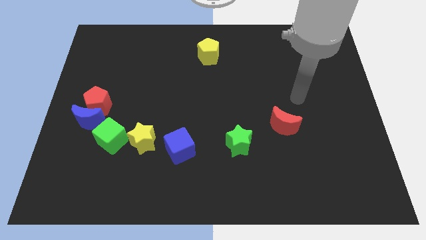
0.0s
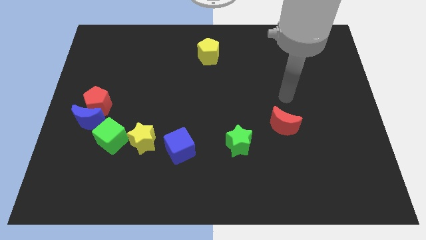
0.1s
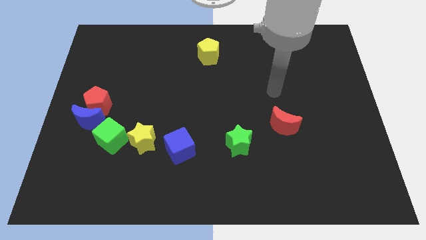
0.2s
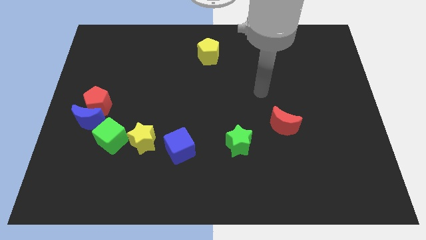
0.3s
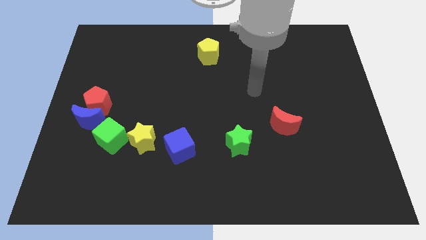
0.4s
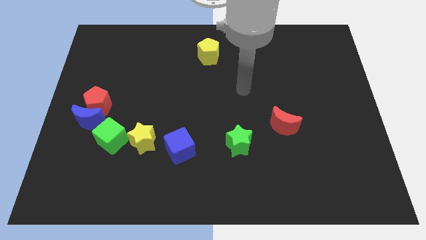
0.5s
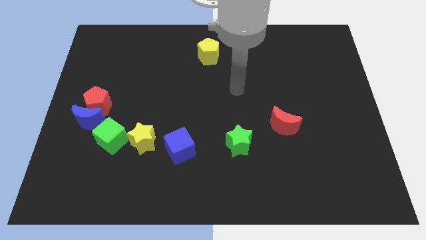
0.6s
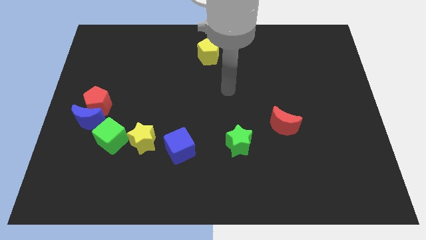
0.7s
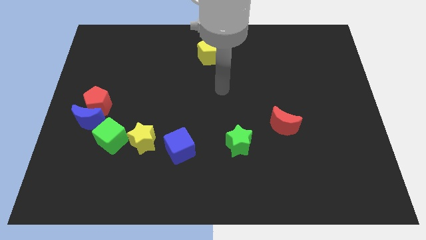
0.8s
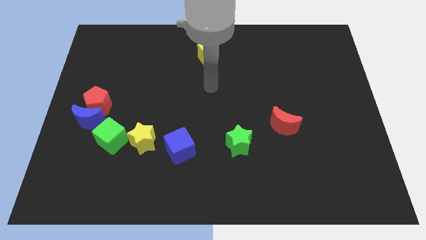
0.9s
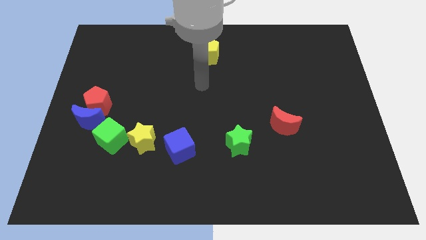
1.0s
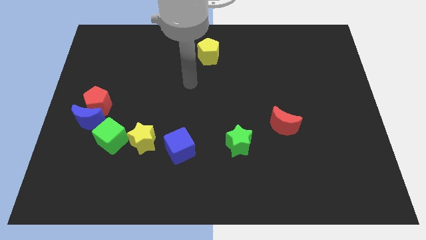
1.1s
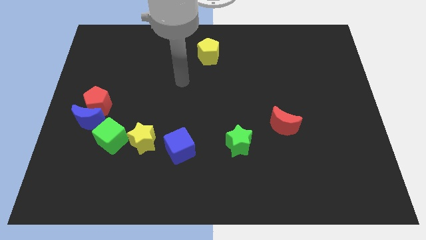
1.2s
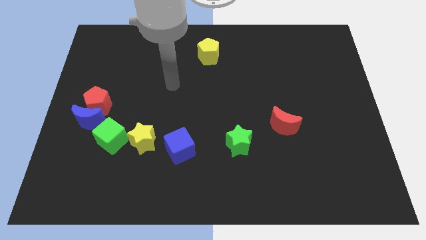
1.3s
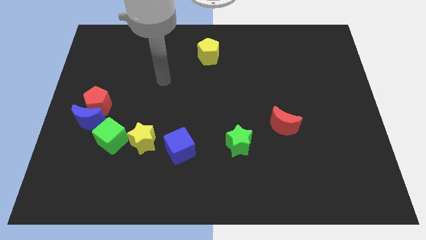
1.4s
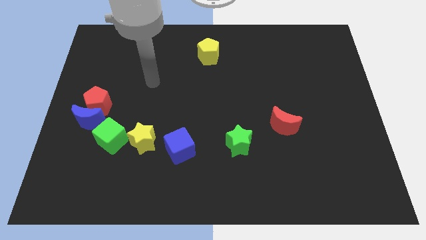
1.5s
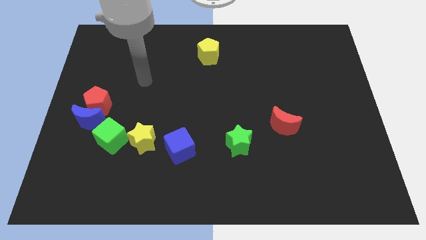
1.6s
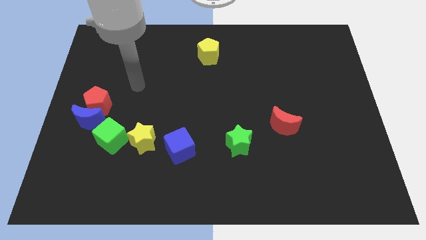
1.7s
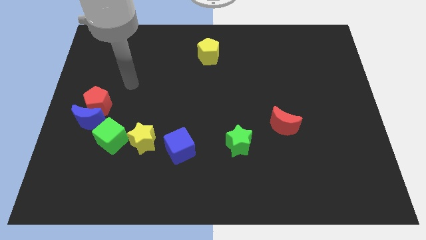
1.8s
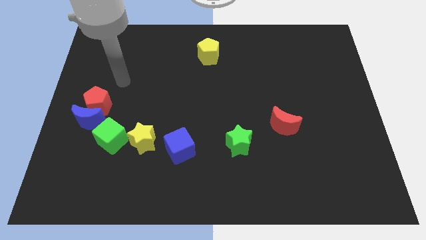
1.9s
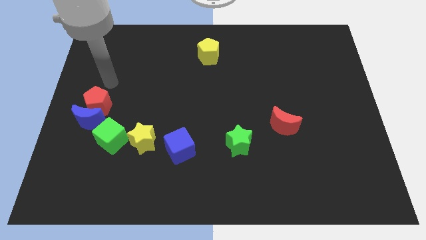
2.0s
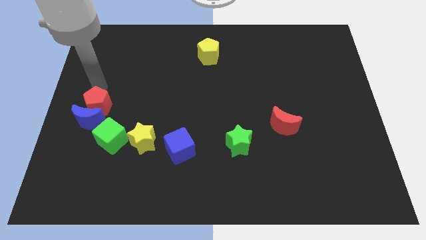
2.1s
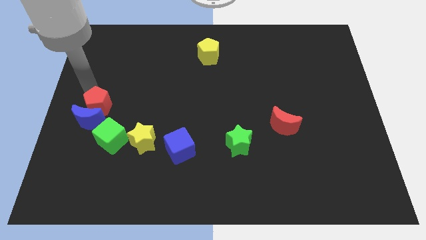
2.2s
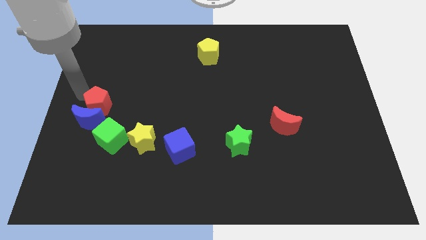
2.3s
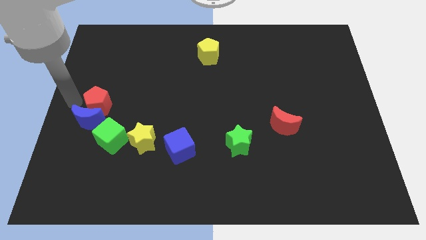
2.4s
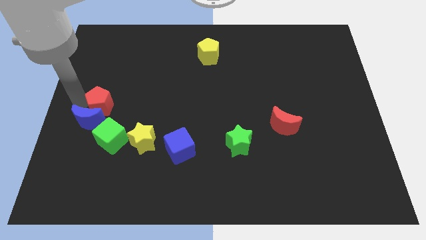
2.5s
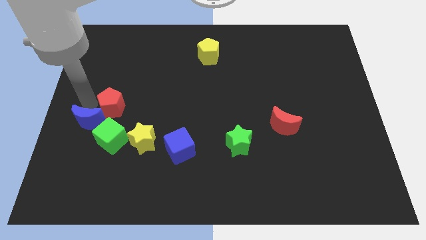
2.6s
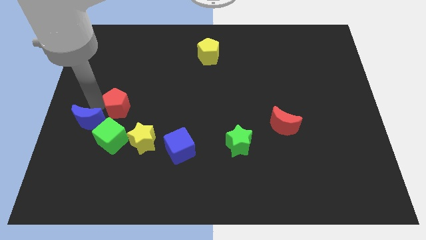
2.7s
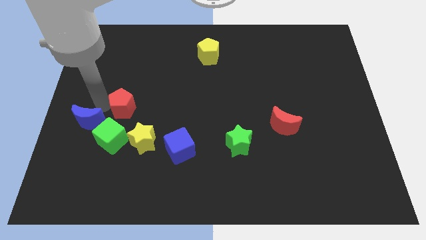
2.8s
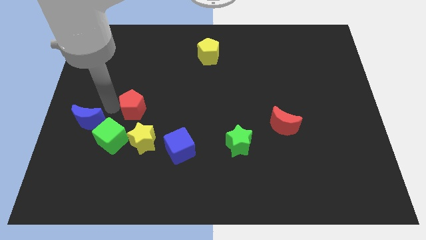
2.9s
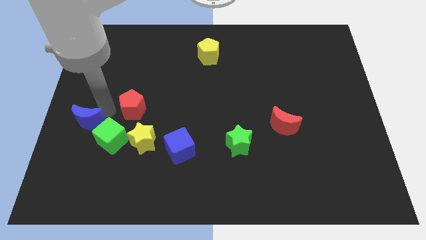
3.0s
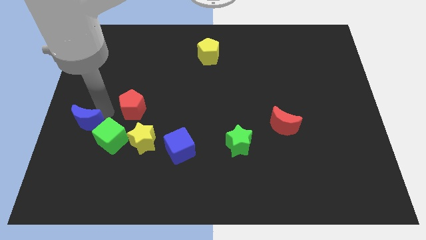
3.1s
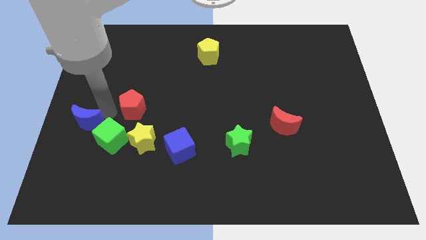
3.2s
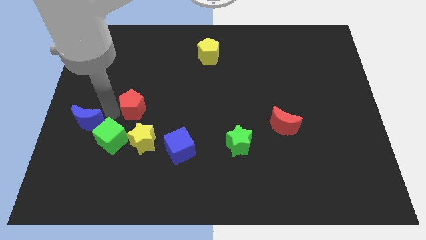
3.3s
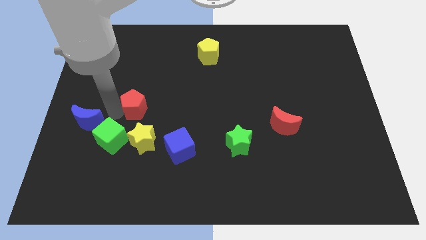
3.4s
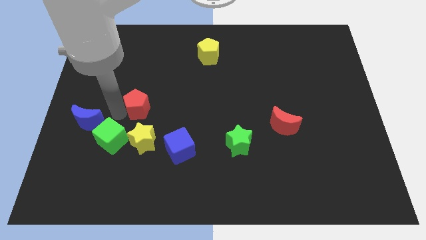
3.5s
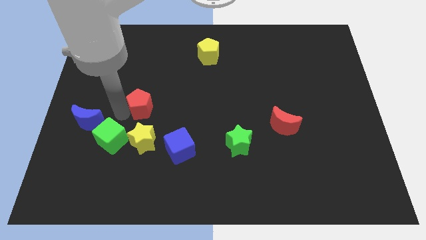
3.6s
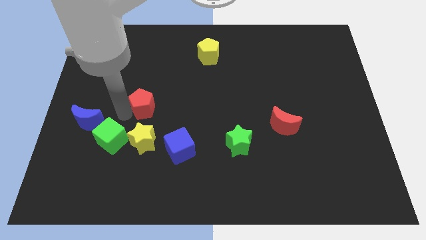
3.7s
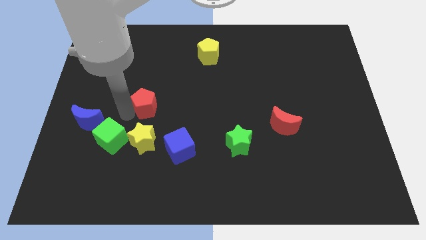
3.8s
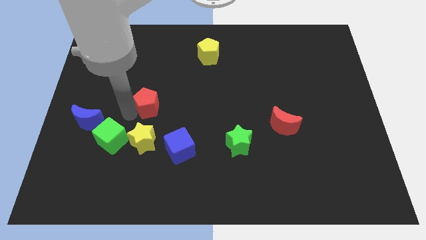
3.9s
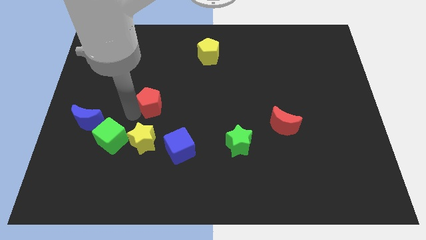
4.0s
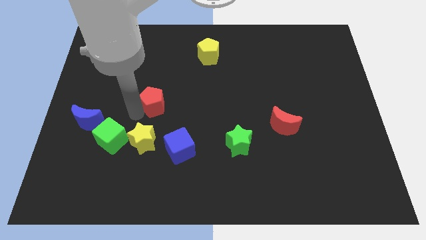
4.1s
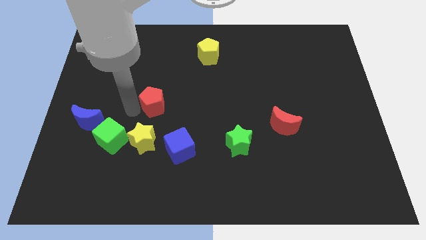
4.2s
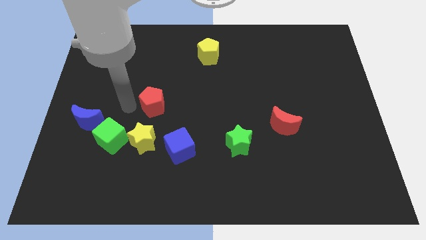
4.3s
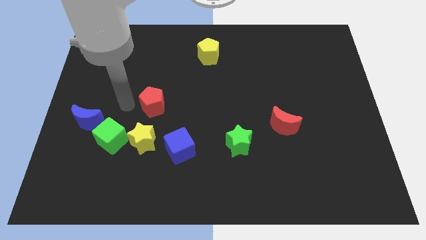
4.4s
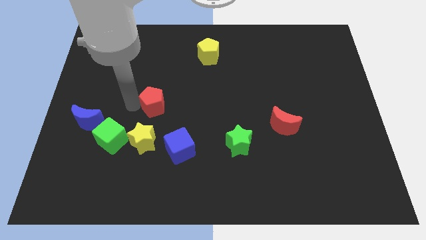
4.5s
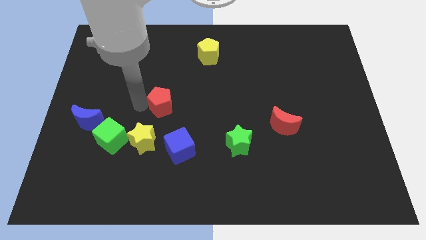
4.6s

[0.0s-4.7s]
move the red pentagon to the middle

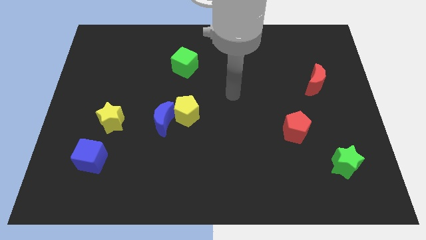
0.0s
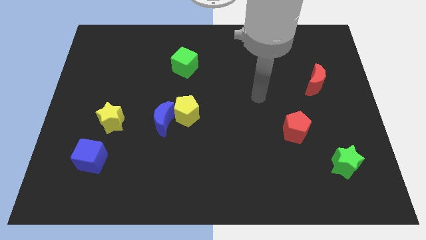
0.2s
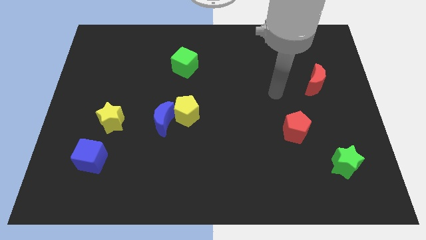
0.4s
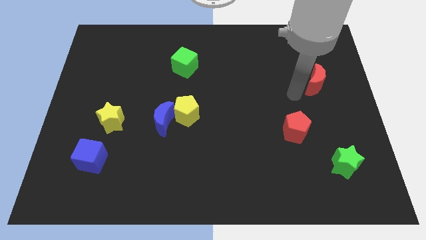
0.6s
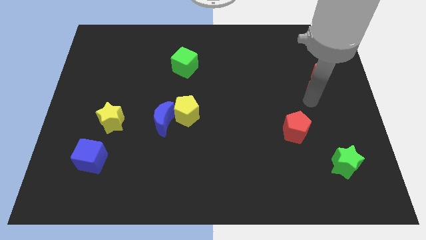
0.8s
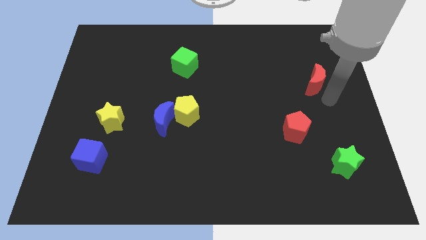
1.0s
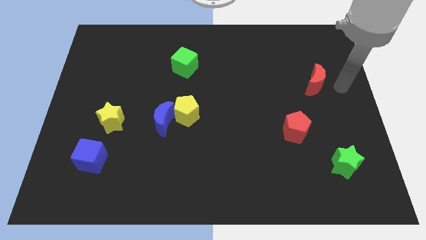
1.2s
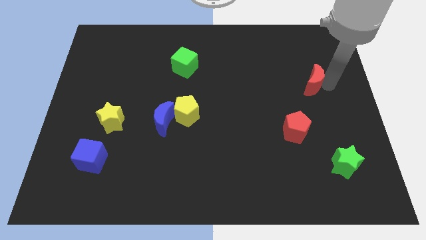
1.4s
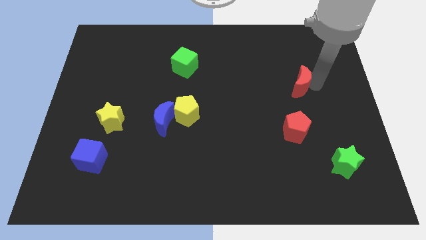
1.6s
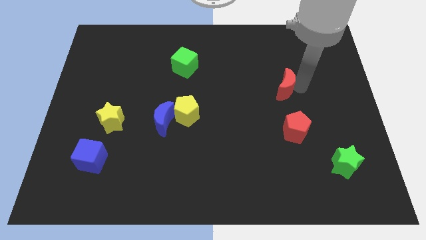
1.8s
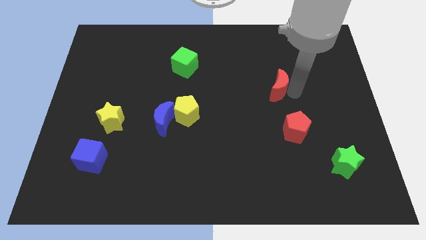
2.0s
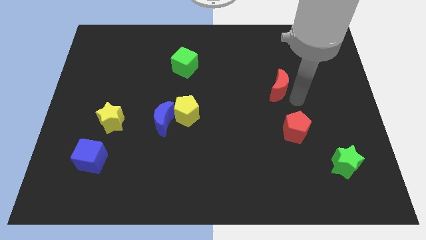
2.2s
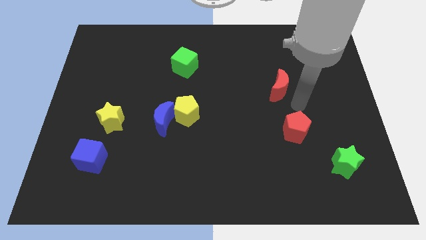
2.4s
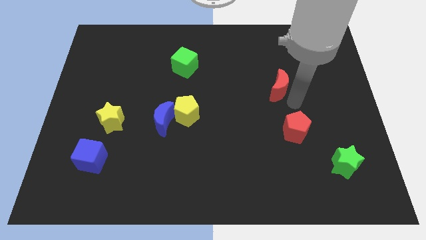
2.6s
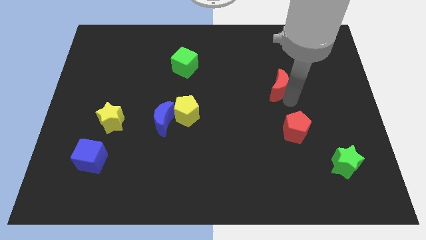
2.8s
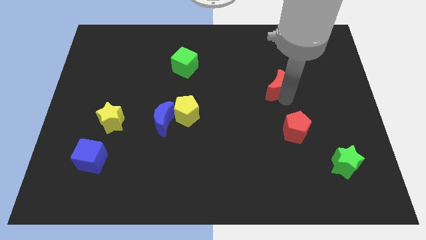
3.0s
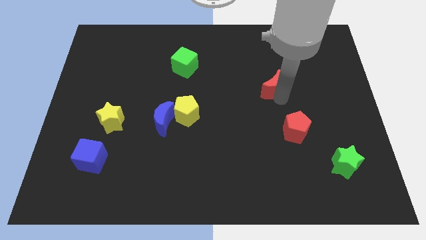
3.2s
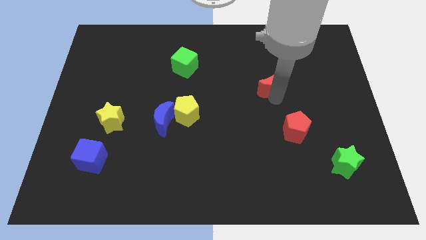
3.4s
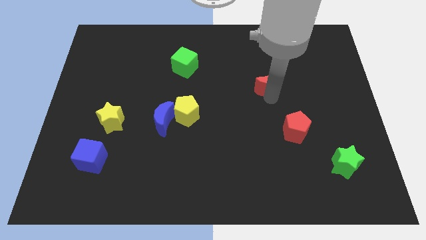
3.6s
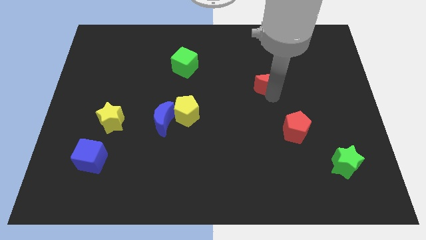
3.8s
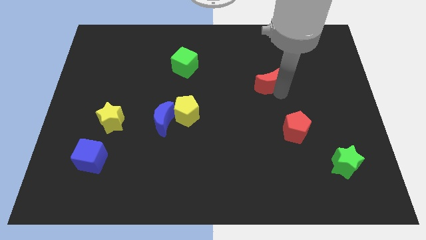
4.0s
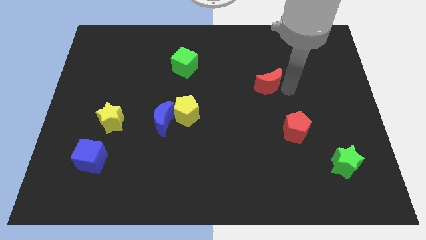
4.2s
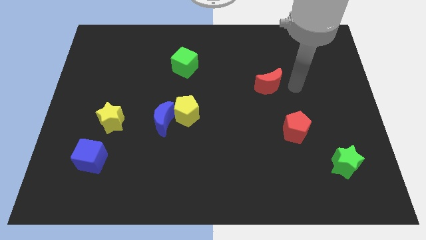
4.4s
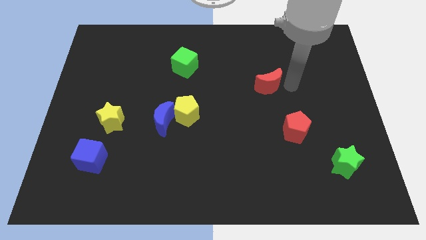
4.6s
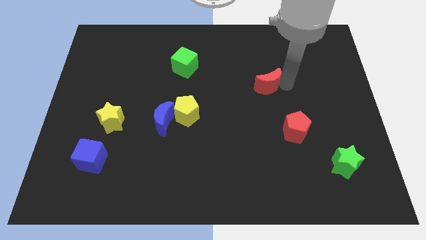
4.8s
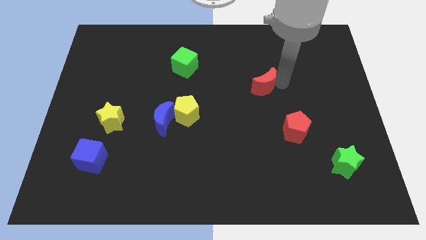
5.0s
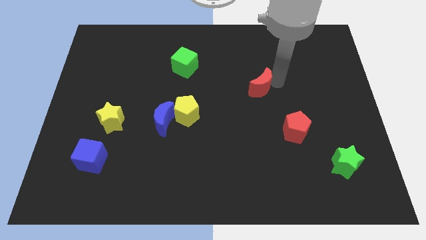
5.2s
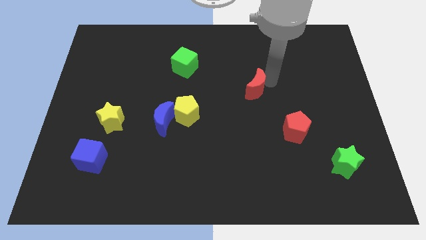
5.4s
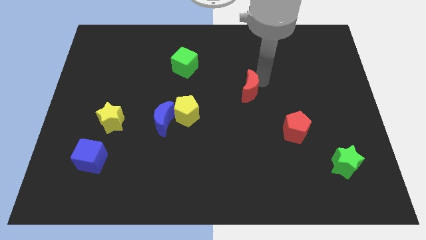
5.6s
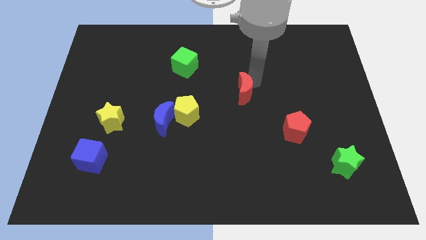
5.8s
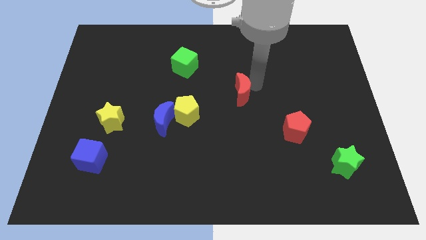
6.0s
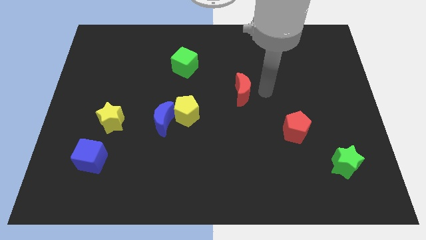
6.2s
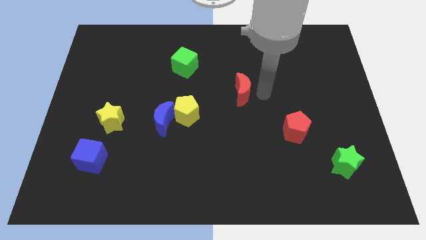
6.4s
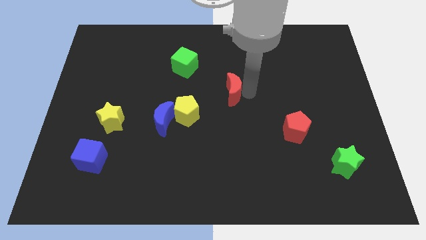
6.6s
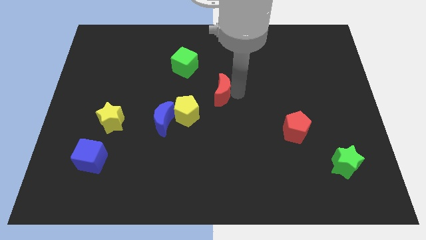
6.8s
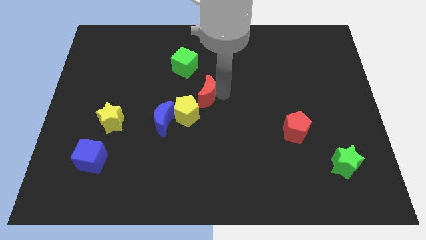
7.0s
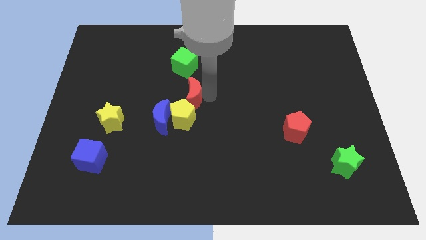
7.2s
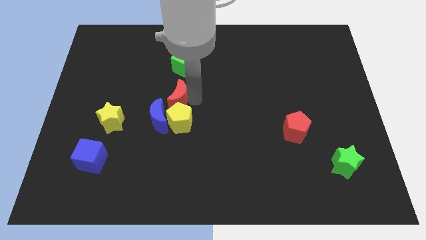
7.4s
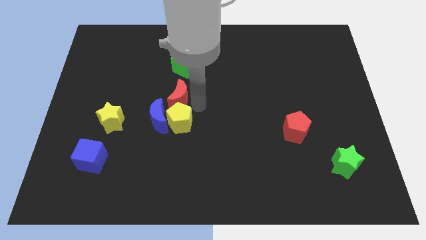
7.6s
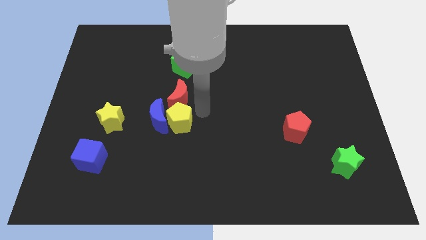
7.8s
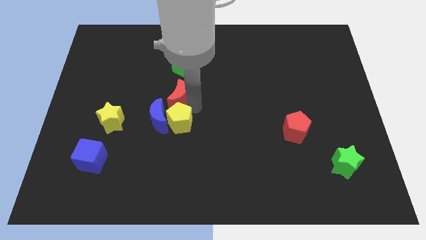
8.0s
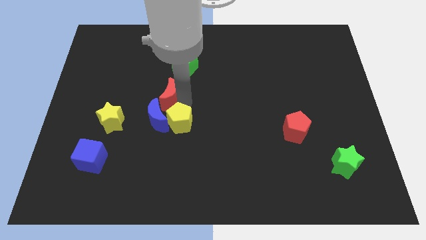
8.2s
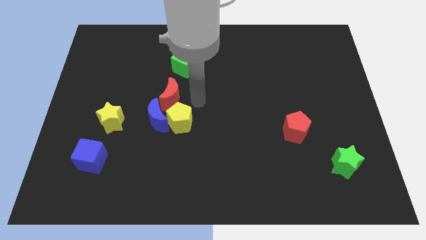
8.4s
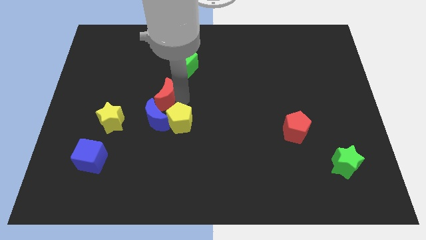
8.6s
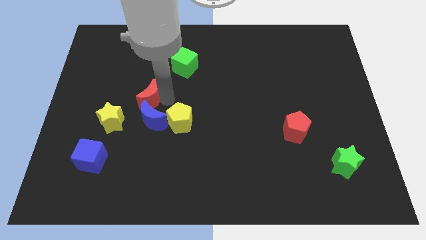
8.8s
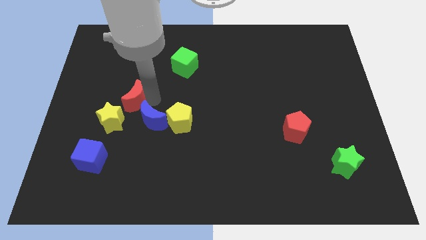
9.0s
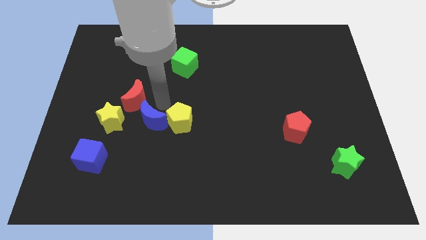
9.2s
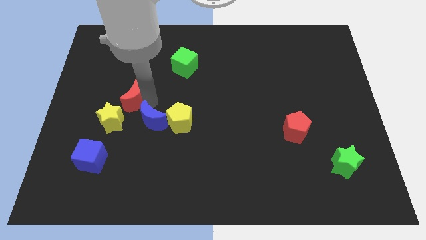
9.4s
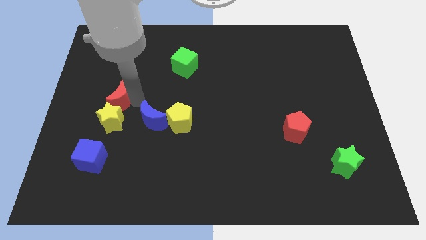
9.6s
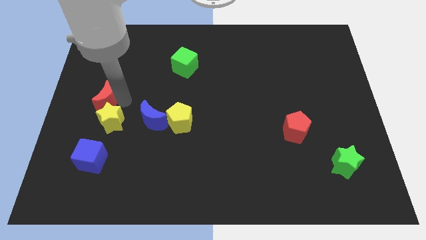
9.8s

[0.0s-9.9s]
put the red moon to the center left
